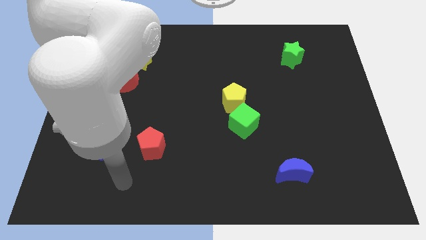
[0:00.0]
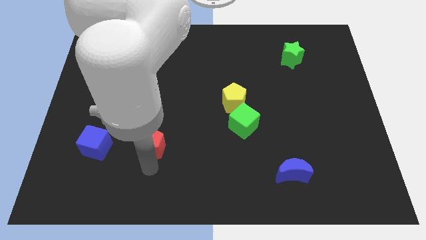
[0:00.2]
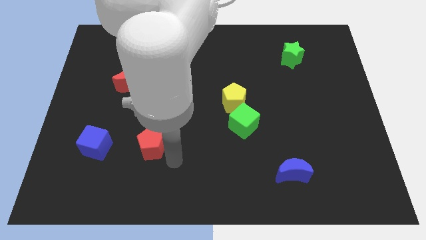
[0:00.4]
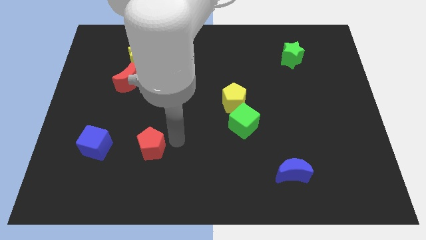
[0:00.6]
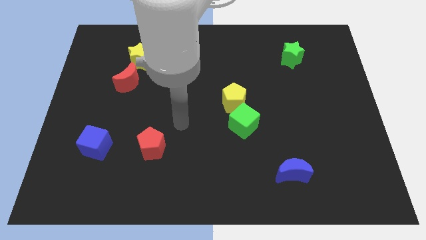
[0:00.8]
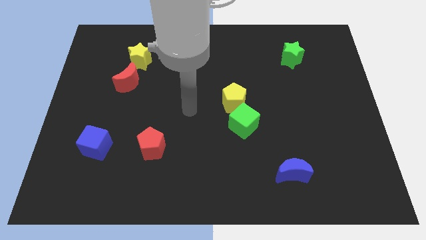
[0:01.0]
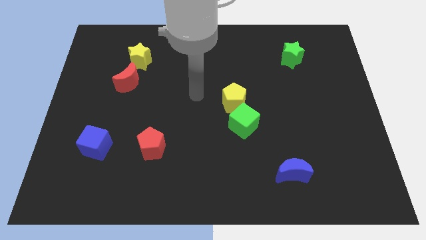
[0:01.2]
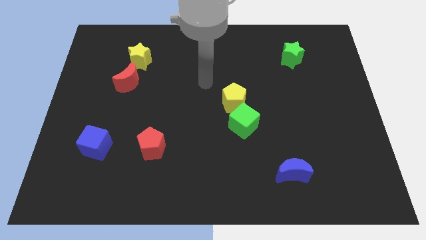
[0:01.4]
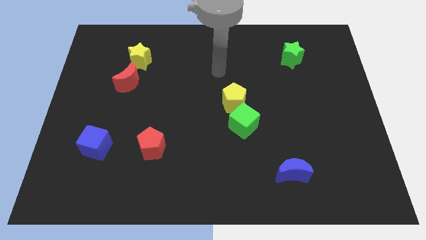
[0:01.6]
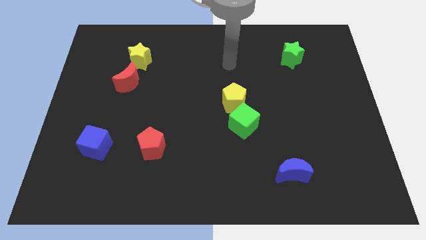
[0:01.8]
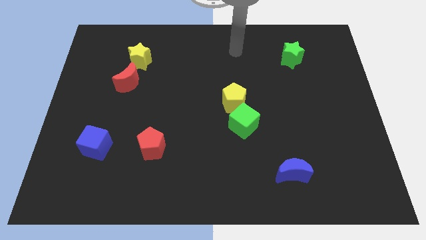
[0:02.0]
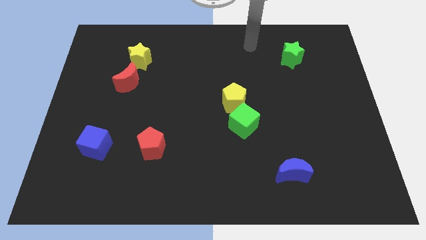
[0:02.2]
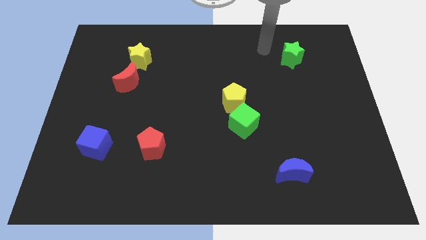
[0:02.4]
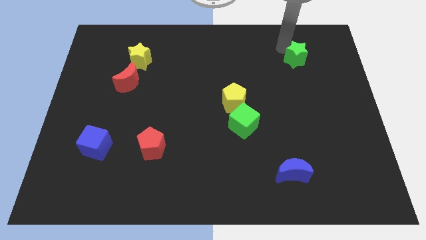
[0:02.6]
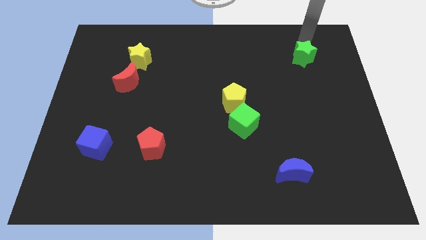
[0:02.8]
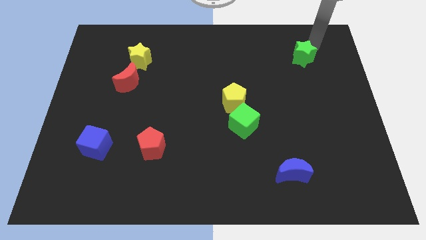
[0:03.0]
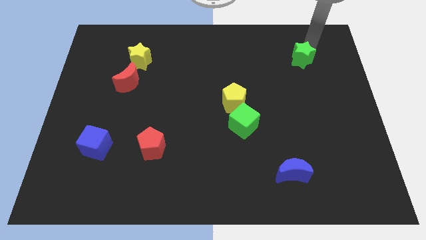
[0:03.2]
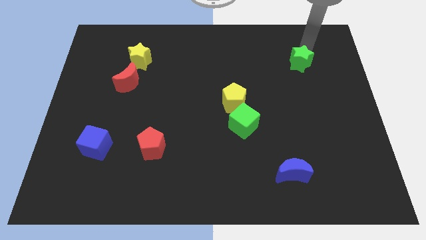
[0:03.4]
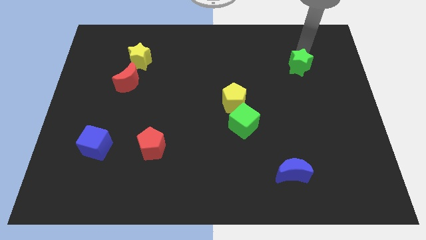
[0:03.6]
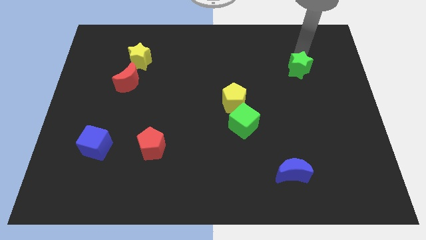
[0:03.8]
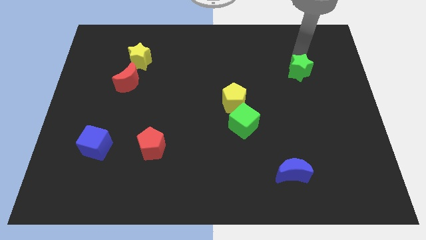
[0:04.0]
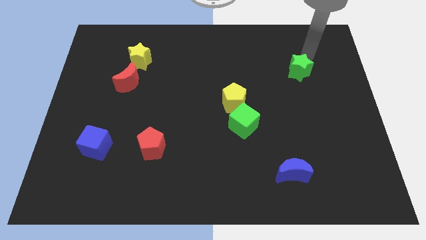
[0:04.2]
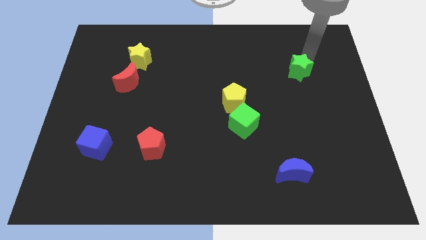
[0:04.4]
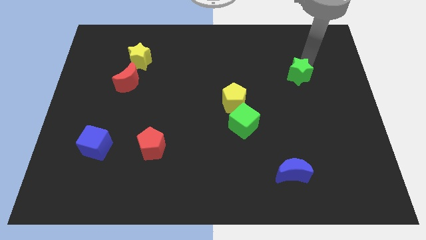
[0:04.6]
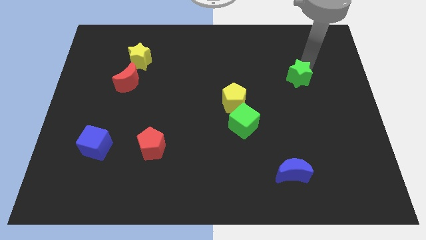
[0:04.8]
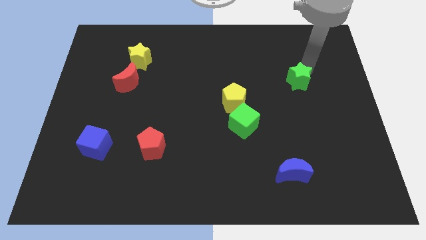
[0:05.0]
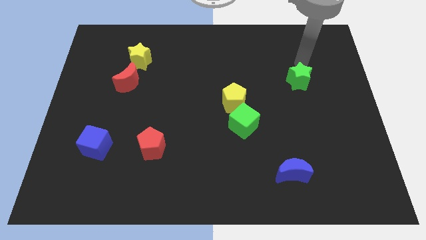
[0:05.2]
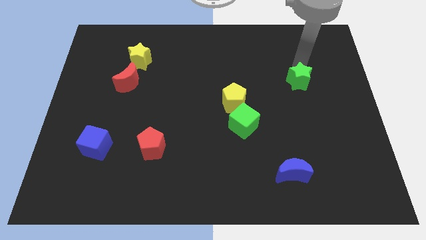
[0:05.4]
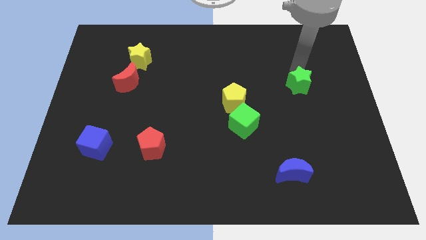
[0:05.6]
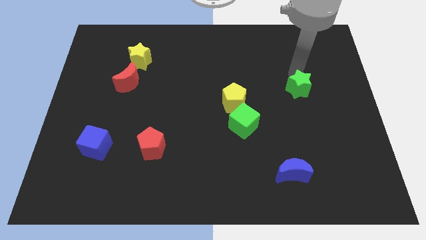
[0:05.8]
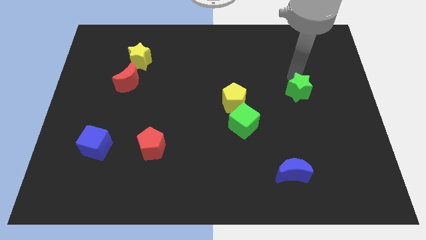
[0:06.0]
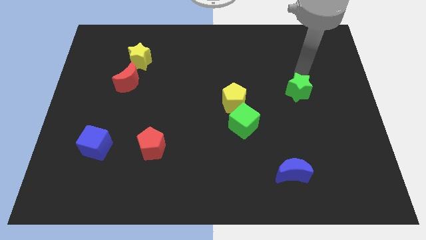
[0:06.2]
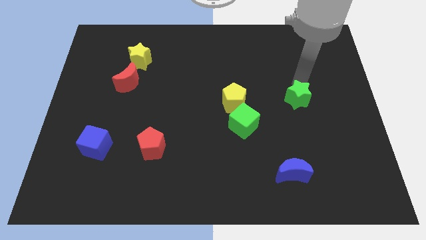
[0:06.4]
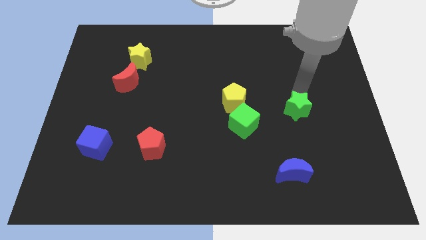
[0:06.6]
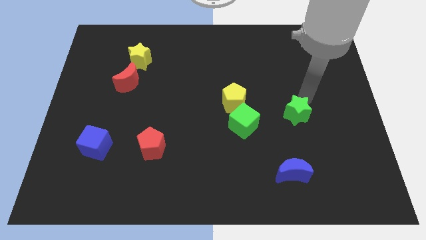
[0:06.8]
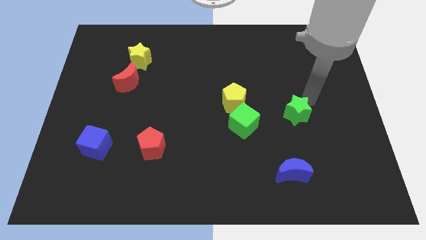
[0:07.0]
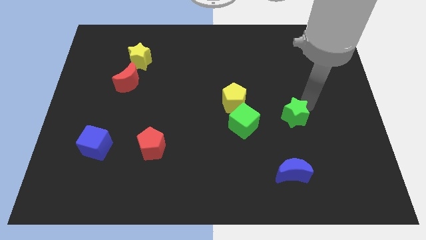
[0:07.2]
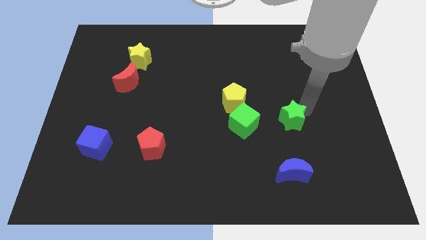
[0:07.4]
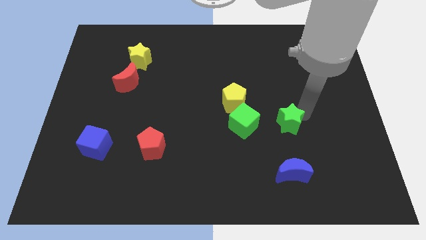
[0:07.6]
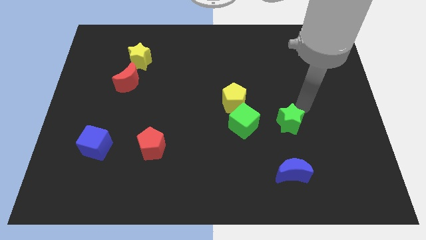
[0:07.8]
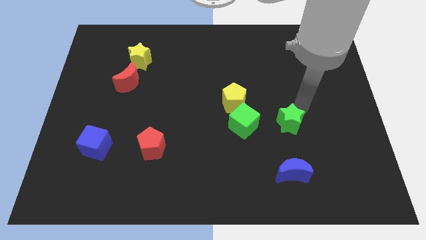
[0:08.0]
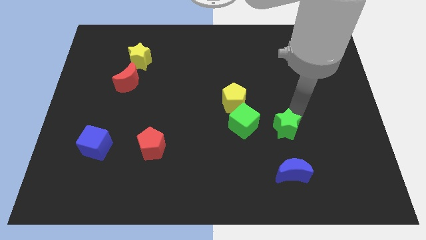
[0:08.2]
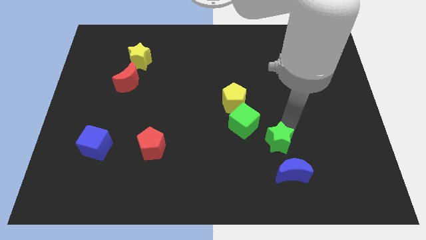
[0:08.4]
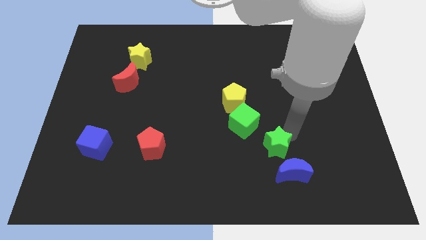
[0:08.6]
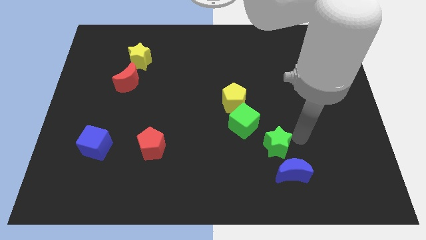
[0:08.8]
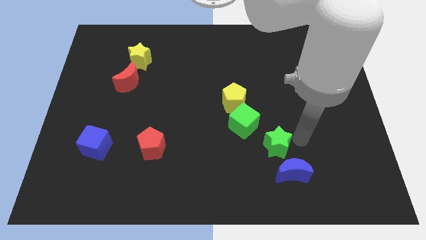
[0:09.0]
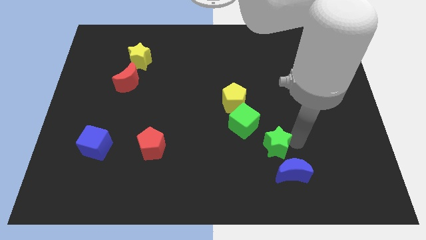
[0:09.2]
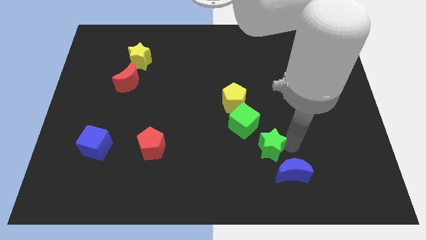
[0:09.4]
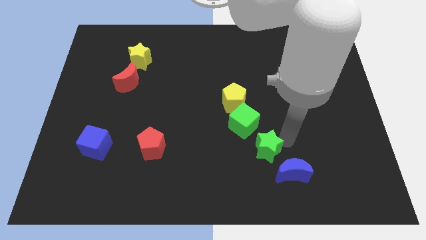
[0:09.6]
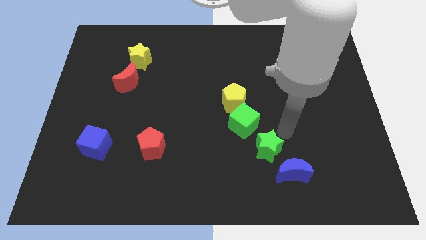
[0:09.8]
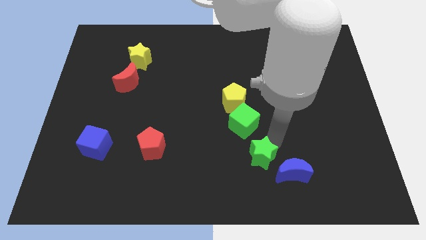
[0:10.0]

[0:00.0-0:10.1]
put the green star left of the blue moon

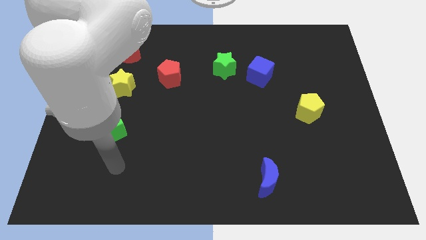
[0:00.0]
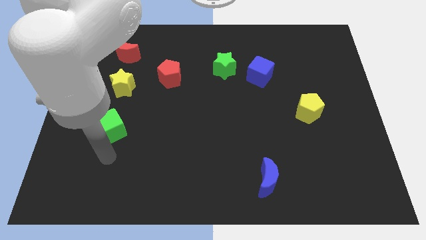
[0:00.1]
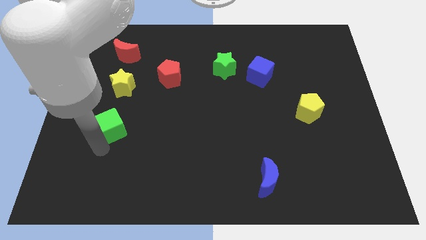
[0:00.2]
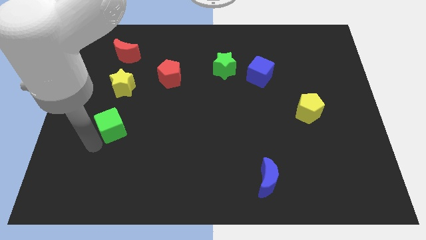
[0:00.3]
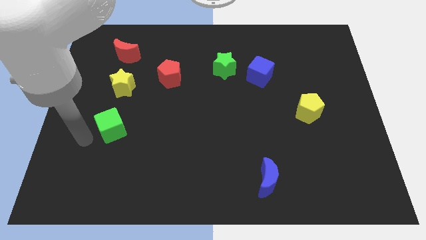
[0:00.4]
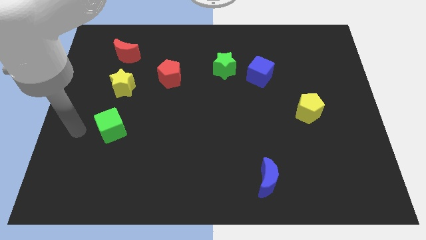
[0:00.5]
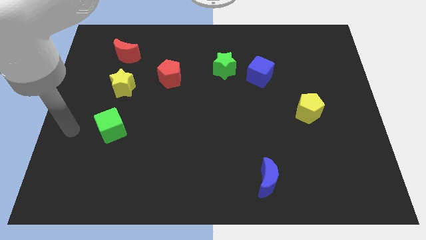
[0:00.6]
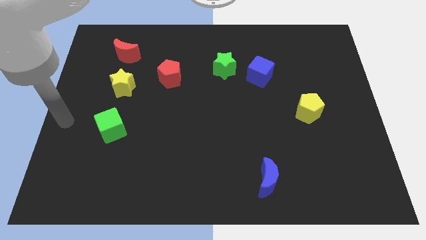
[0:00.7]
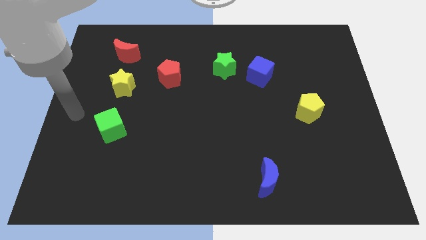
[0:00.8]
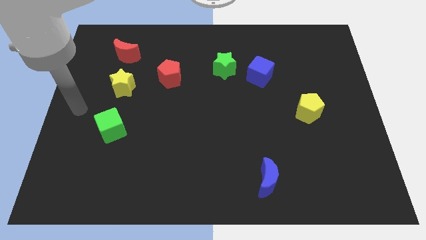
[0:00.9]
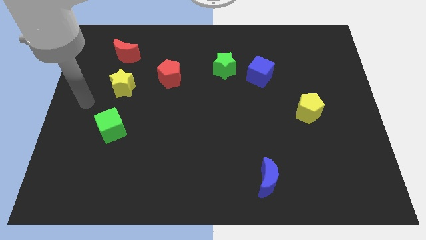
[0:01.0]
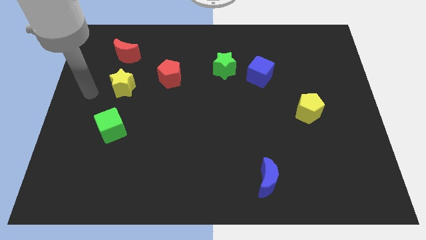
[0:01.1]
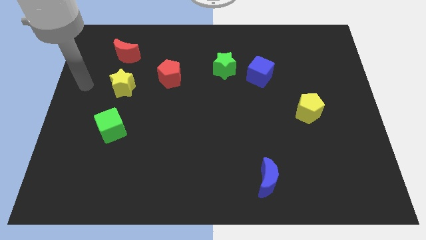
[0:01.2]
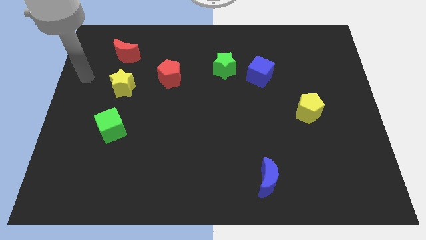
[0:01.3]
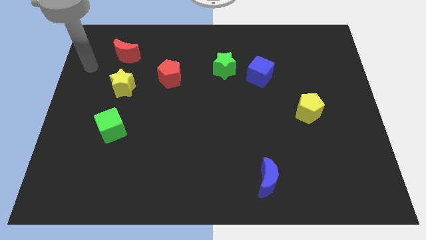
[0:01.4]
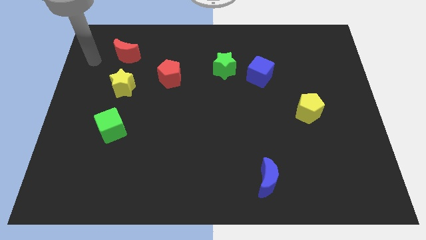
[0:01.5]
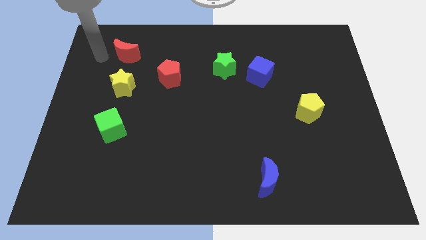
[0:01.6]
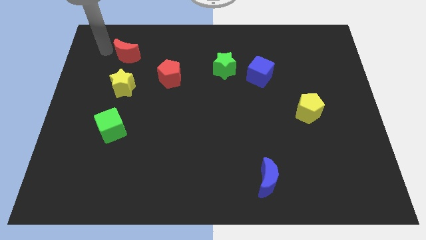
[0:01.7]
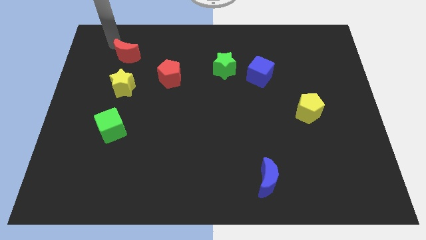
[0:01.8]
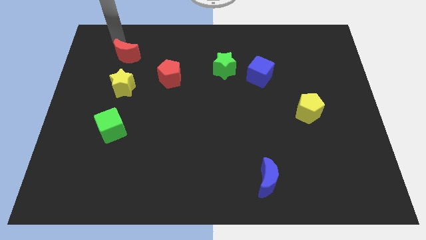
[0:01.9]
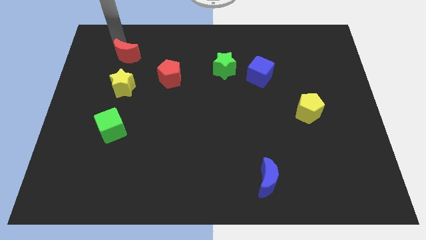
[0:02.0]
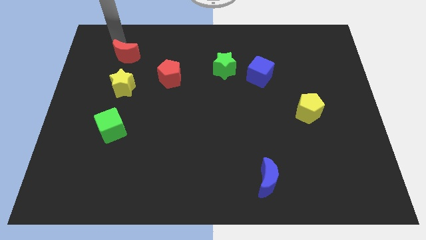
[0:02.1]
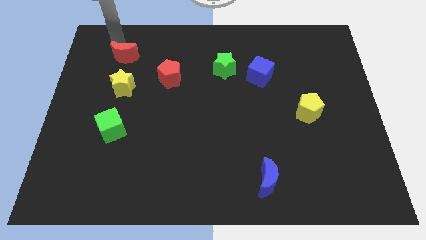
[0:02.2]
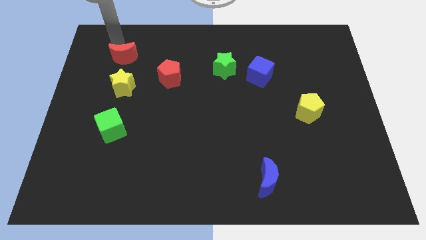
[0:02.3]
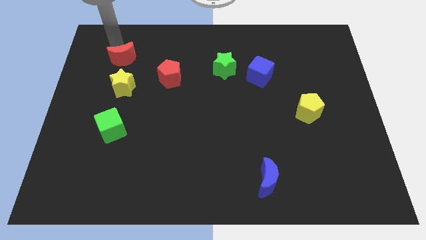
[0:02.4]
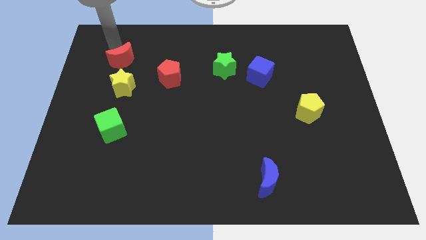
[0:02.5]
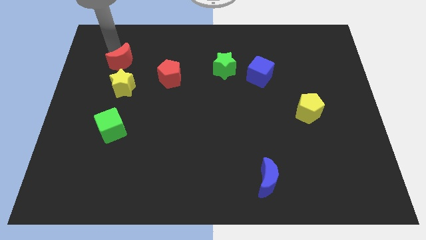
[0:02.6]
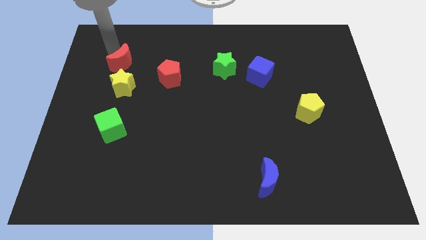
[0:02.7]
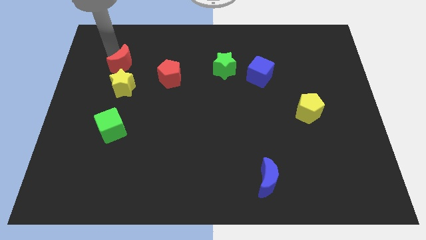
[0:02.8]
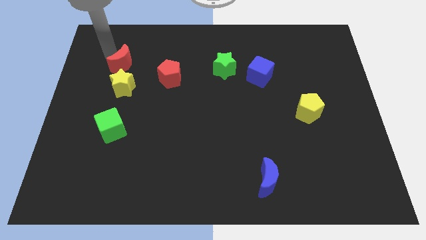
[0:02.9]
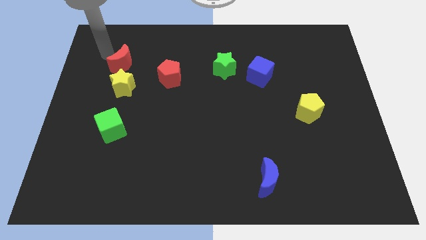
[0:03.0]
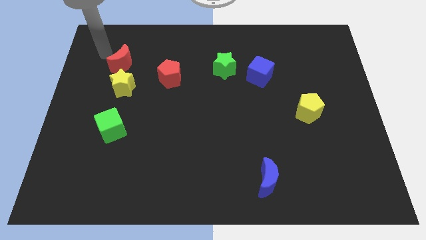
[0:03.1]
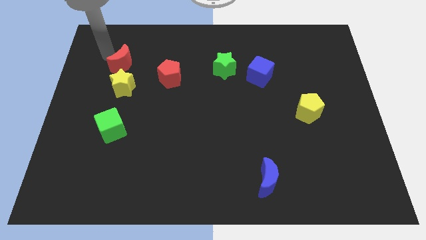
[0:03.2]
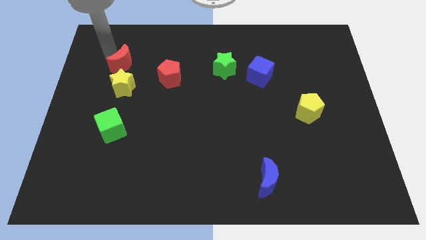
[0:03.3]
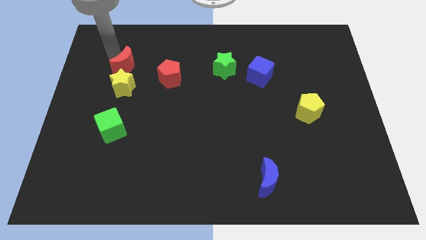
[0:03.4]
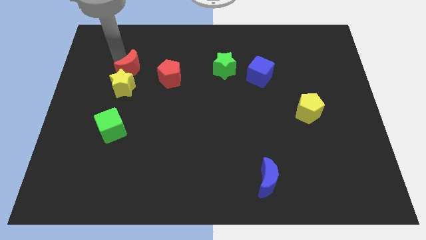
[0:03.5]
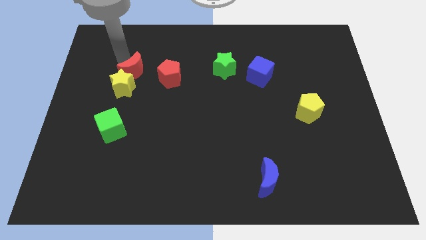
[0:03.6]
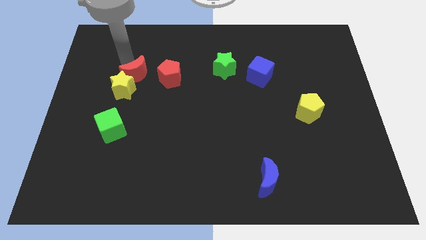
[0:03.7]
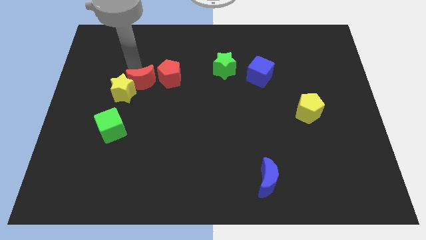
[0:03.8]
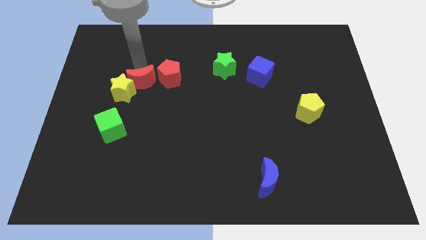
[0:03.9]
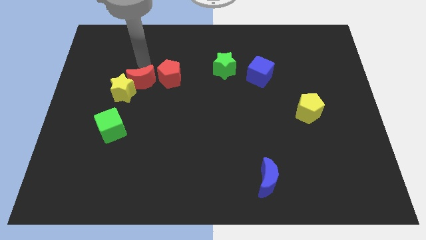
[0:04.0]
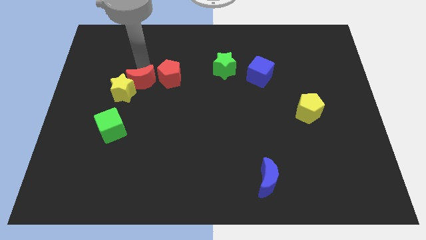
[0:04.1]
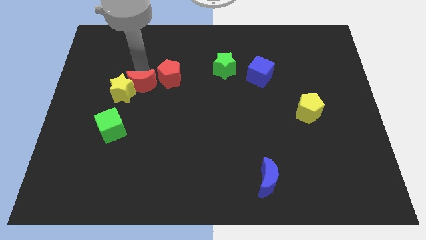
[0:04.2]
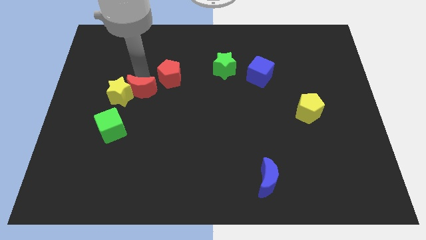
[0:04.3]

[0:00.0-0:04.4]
slide the red moon to the bottom right of the yellow star
